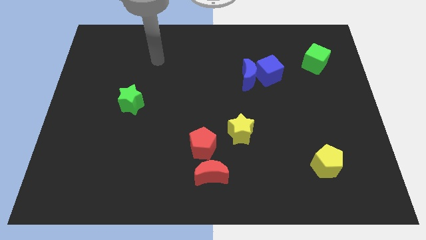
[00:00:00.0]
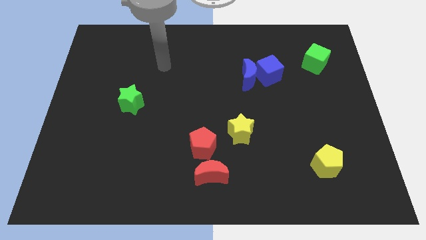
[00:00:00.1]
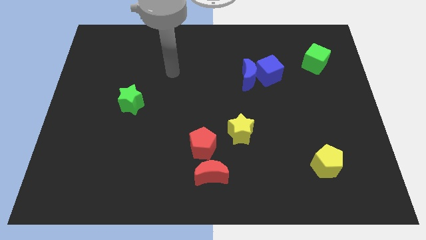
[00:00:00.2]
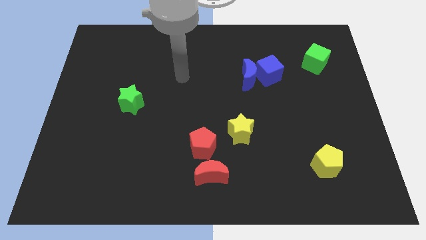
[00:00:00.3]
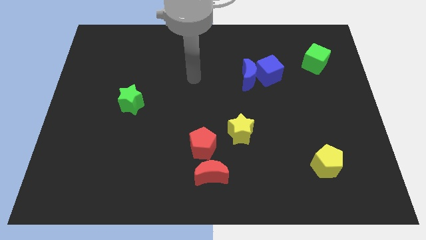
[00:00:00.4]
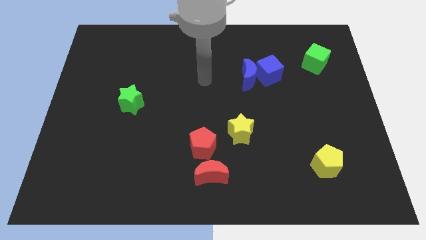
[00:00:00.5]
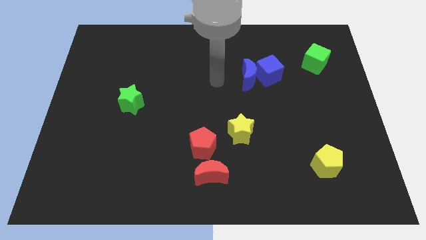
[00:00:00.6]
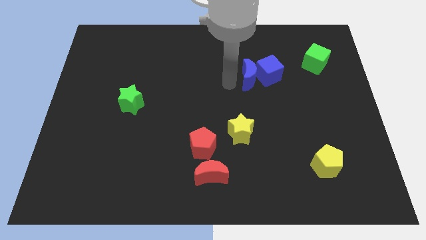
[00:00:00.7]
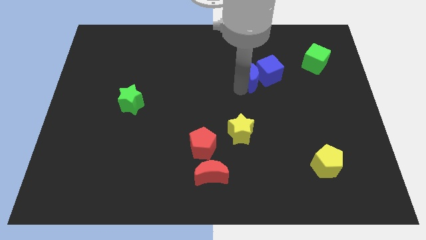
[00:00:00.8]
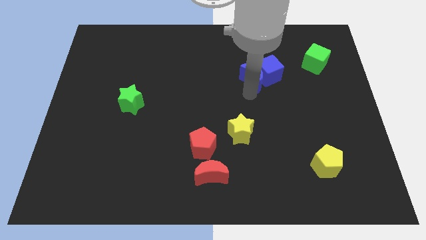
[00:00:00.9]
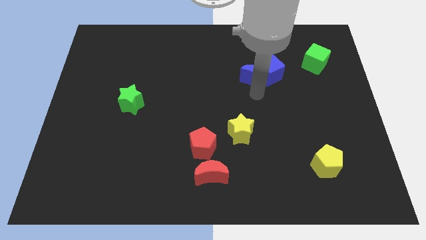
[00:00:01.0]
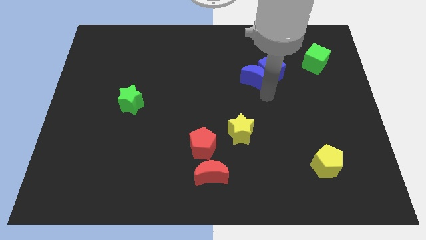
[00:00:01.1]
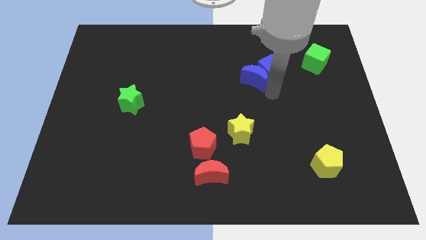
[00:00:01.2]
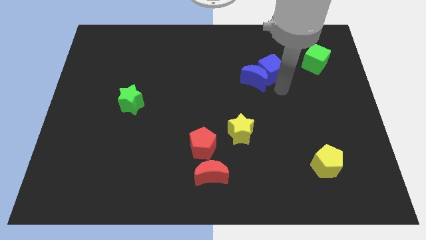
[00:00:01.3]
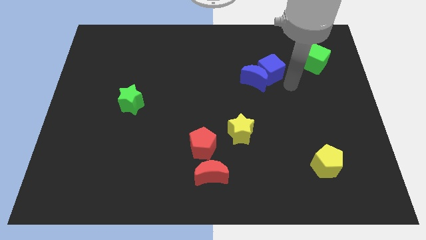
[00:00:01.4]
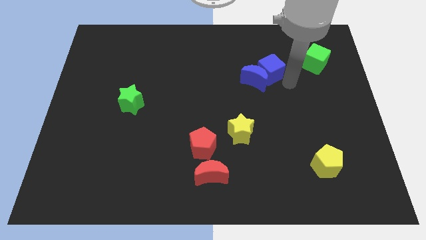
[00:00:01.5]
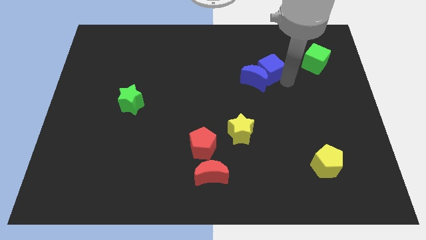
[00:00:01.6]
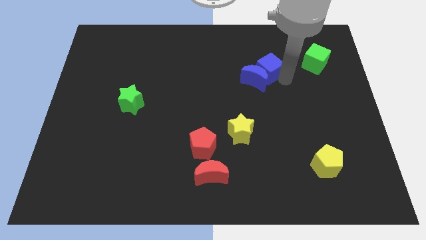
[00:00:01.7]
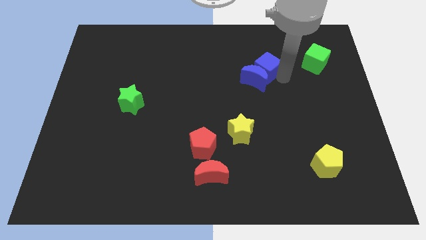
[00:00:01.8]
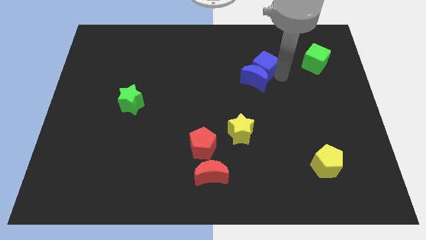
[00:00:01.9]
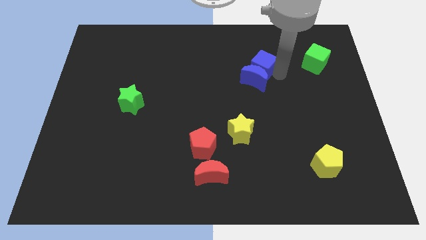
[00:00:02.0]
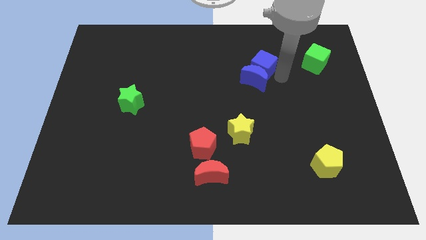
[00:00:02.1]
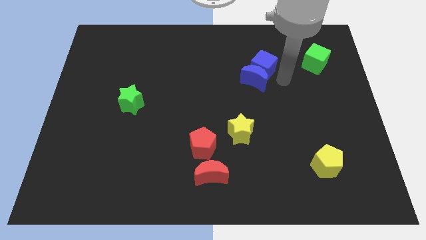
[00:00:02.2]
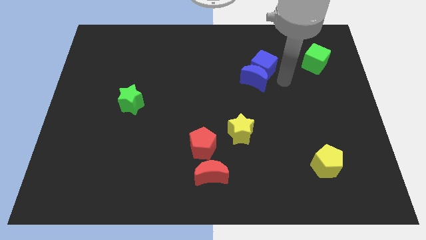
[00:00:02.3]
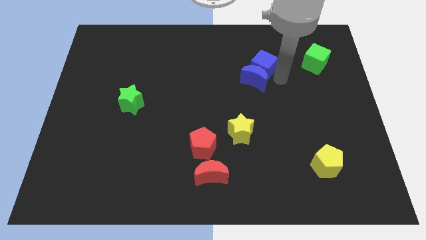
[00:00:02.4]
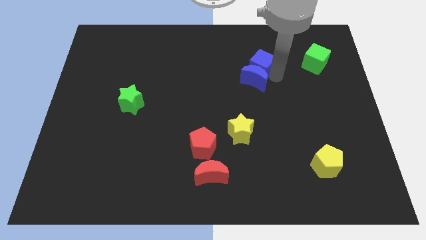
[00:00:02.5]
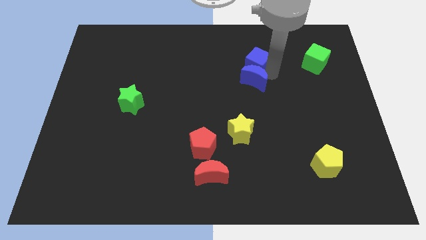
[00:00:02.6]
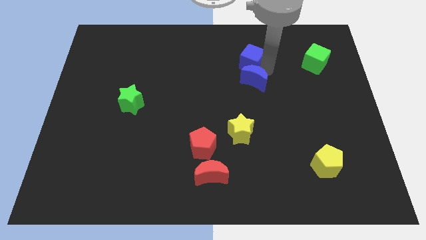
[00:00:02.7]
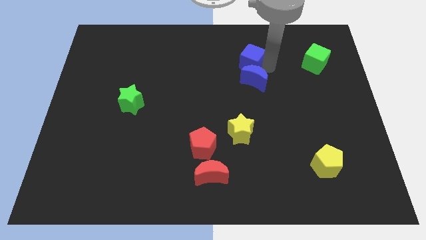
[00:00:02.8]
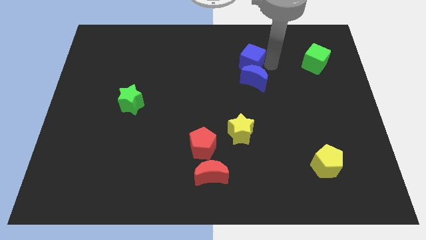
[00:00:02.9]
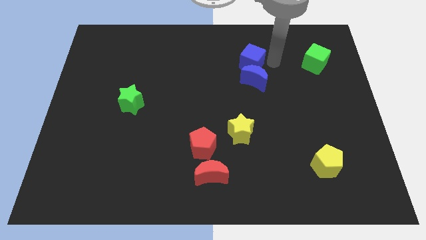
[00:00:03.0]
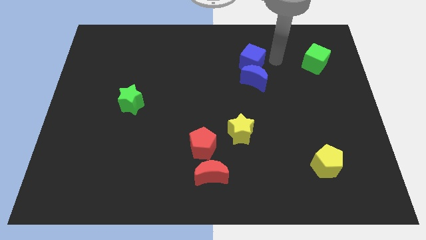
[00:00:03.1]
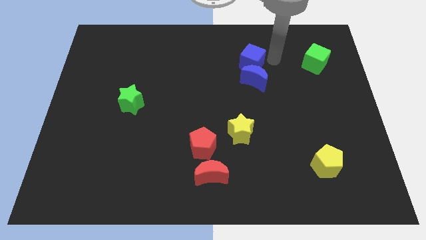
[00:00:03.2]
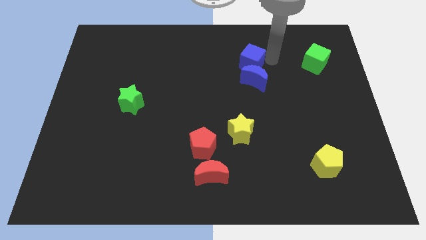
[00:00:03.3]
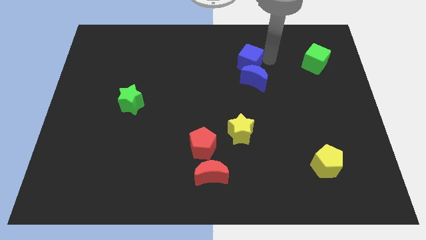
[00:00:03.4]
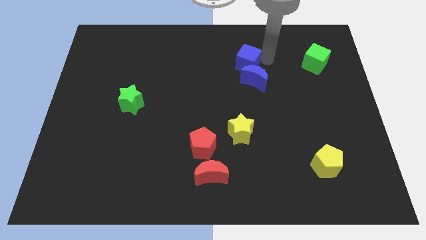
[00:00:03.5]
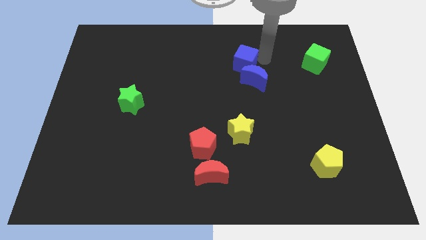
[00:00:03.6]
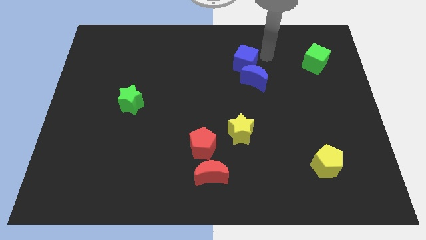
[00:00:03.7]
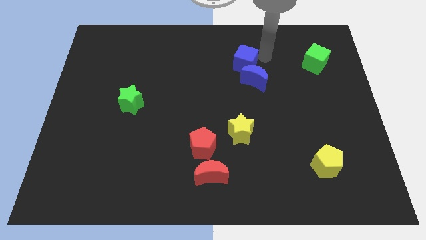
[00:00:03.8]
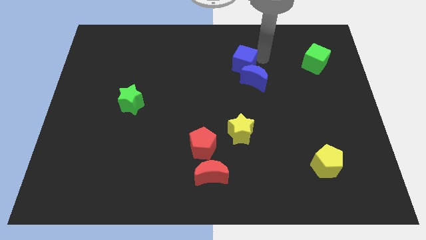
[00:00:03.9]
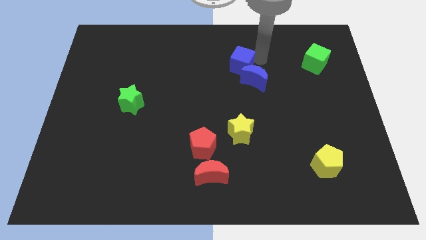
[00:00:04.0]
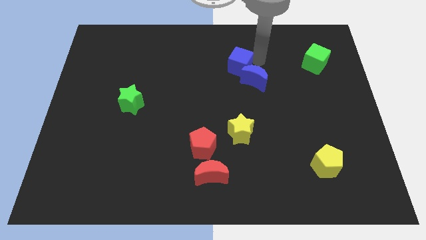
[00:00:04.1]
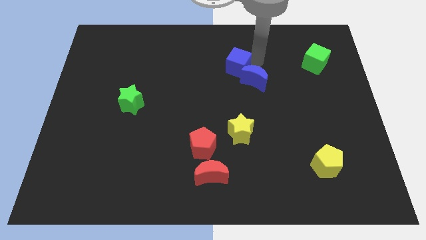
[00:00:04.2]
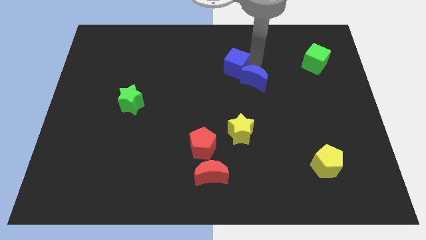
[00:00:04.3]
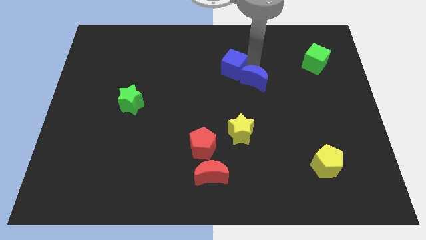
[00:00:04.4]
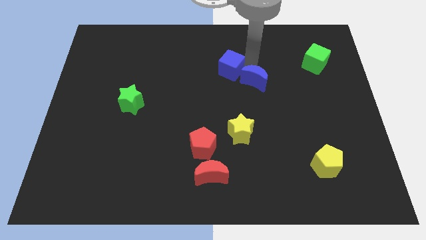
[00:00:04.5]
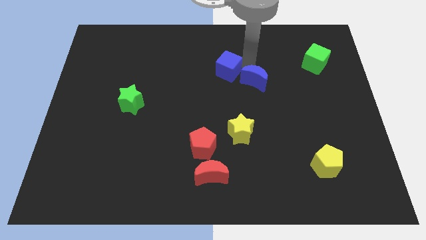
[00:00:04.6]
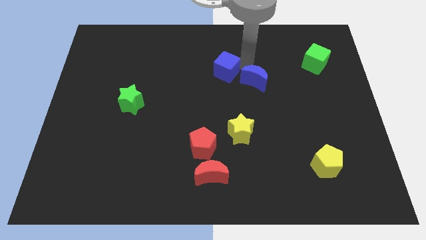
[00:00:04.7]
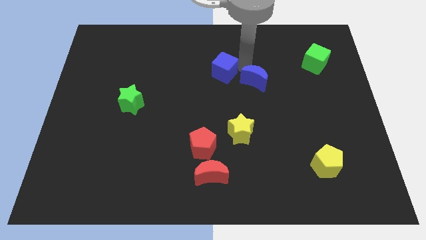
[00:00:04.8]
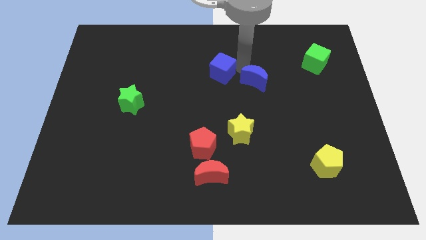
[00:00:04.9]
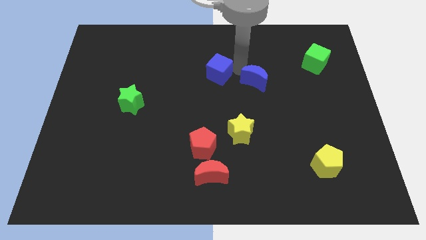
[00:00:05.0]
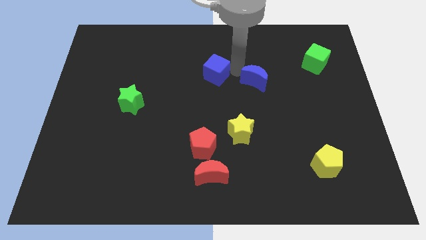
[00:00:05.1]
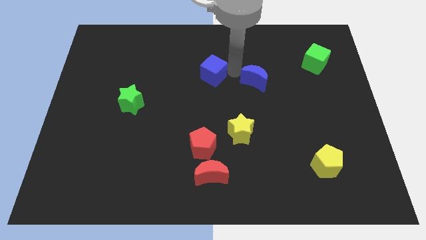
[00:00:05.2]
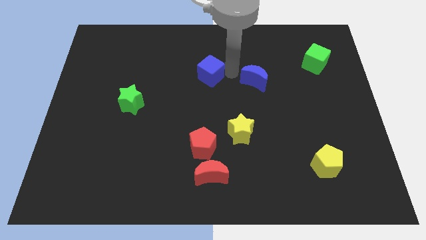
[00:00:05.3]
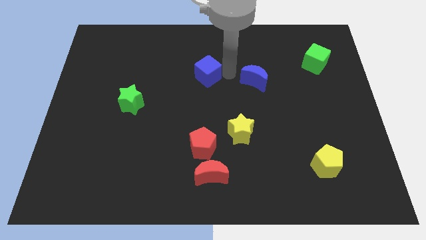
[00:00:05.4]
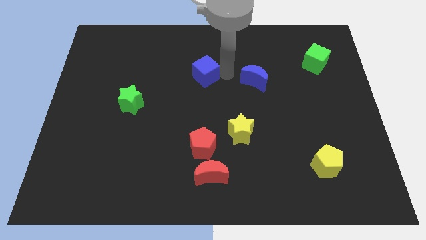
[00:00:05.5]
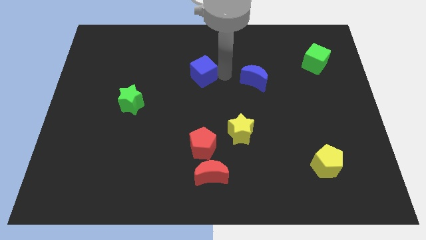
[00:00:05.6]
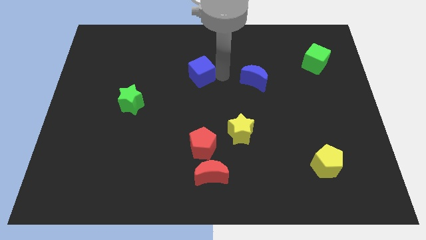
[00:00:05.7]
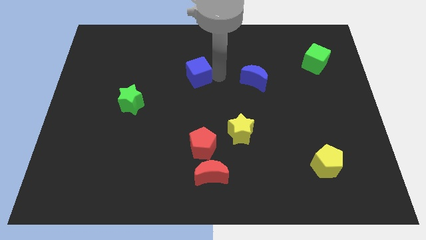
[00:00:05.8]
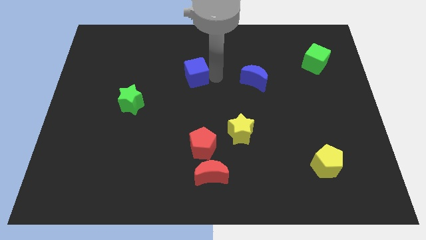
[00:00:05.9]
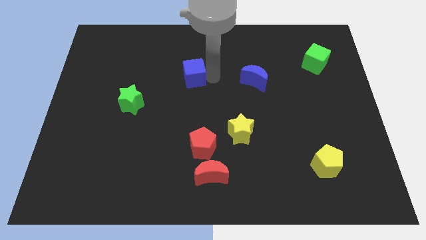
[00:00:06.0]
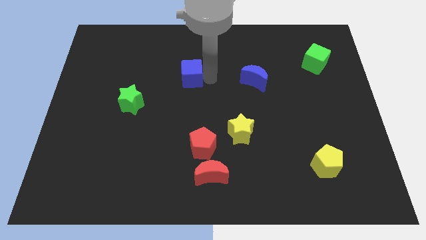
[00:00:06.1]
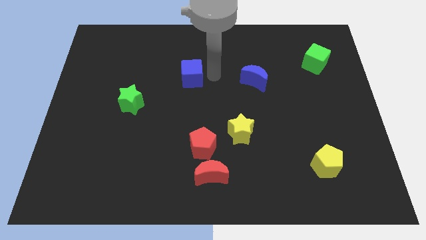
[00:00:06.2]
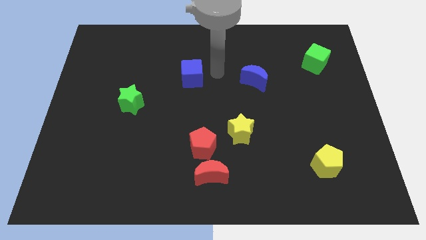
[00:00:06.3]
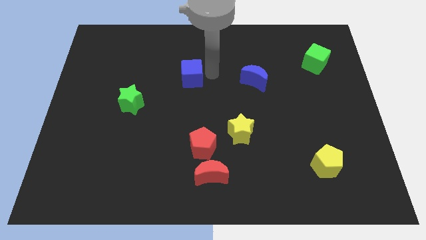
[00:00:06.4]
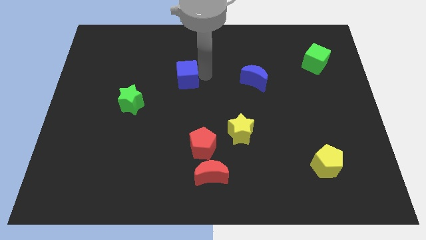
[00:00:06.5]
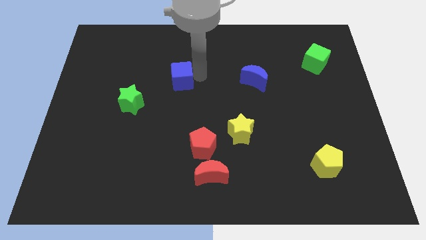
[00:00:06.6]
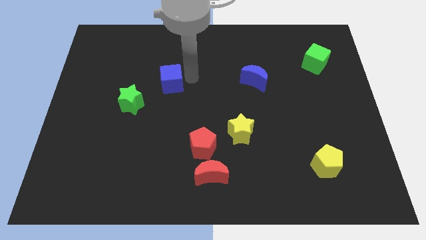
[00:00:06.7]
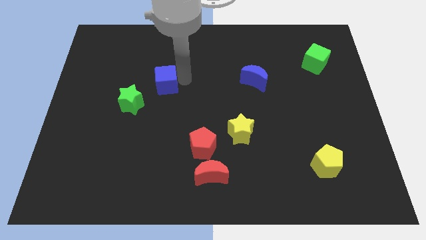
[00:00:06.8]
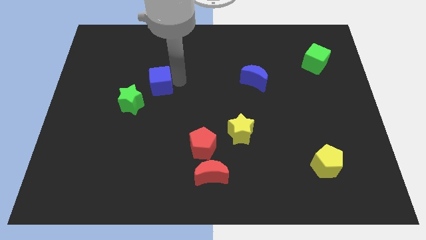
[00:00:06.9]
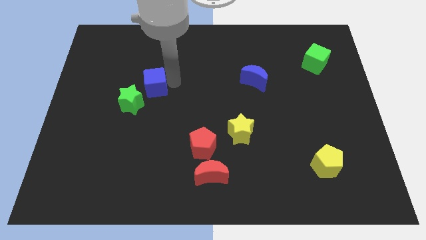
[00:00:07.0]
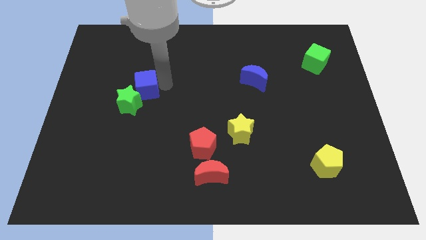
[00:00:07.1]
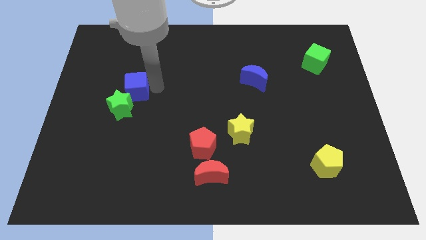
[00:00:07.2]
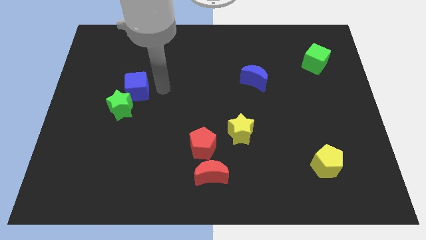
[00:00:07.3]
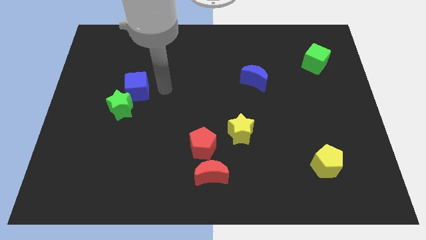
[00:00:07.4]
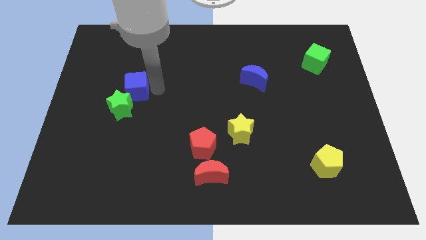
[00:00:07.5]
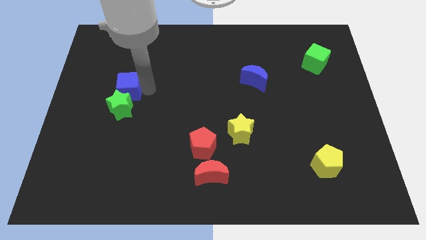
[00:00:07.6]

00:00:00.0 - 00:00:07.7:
move the blue cube to the top left side of the green star
